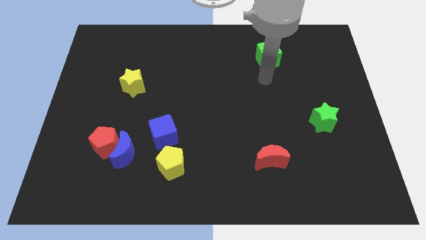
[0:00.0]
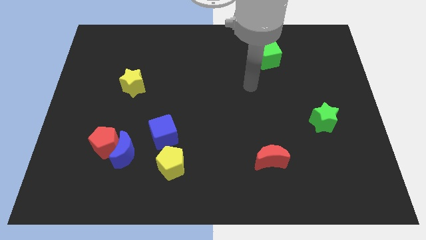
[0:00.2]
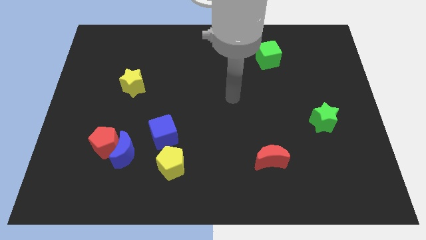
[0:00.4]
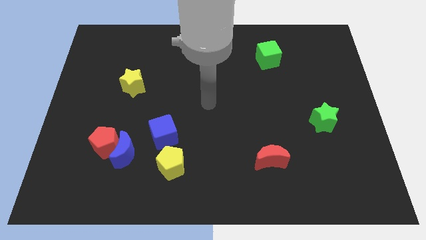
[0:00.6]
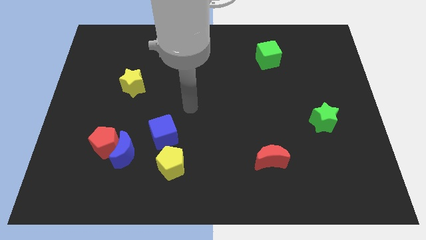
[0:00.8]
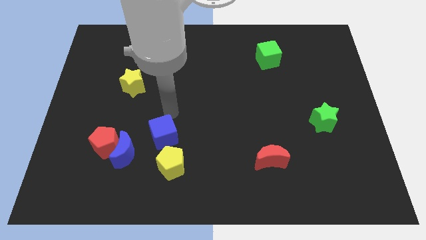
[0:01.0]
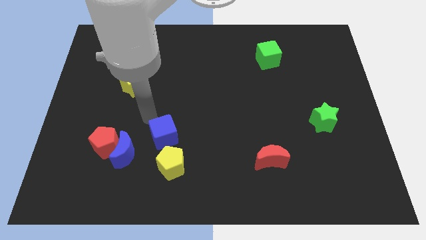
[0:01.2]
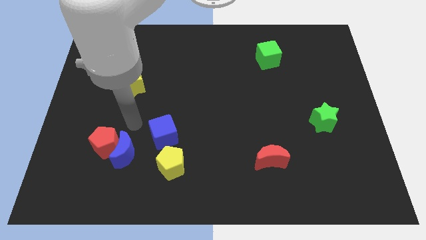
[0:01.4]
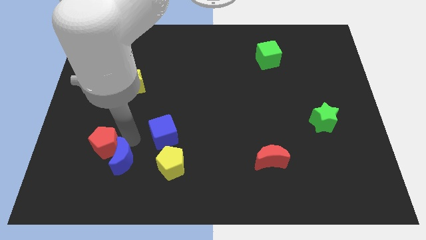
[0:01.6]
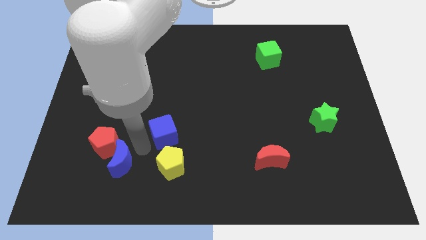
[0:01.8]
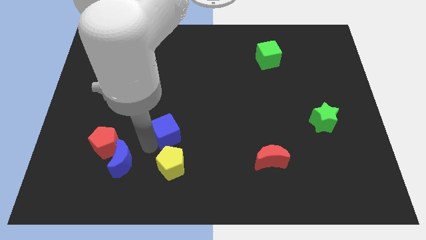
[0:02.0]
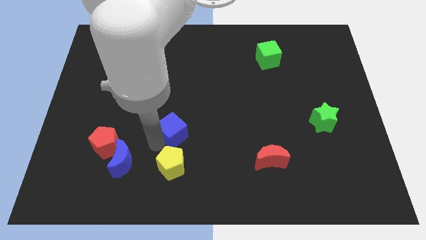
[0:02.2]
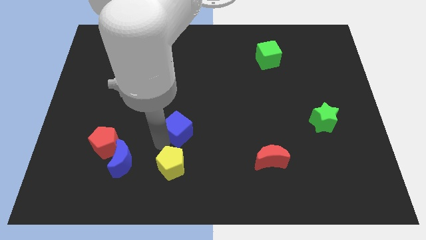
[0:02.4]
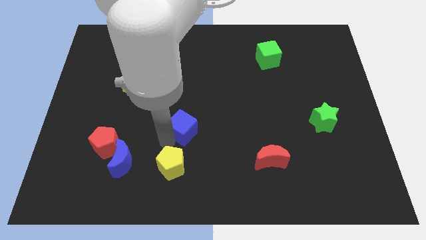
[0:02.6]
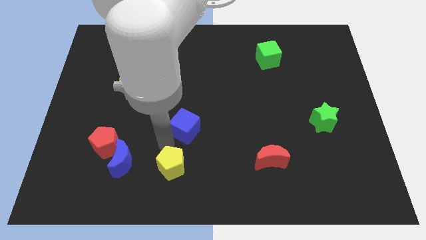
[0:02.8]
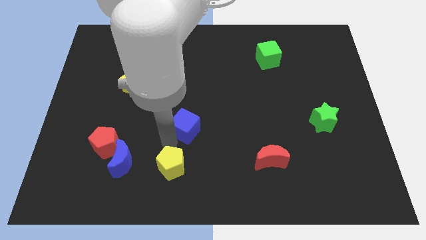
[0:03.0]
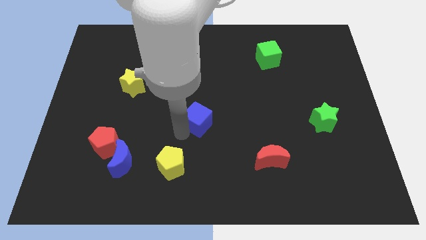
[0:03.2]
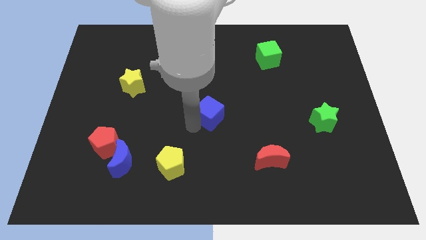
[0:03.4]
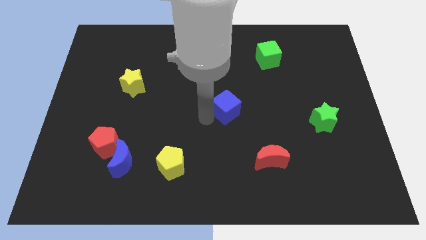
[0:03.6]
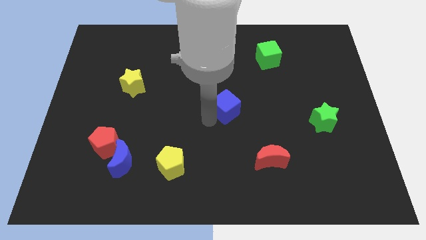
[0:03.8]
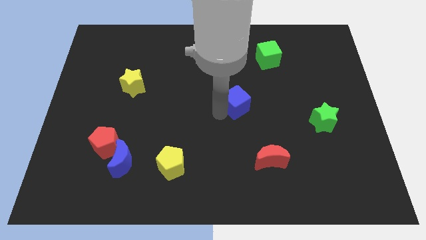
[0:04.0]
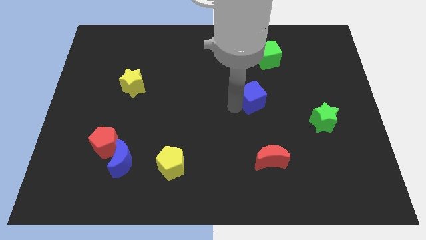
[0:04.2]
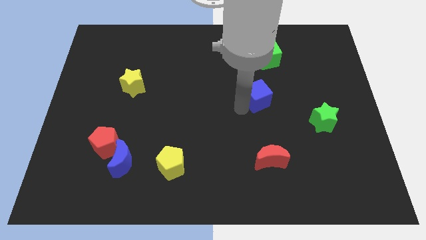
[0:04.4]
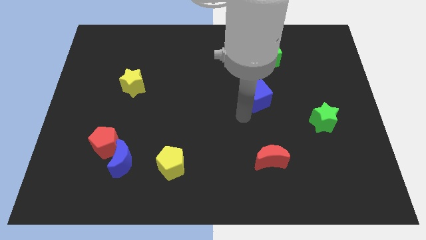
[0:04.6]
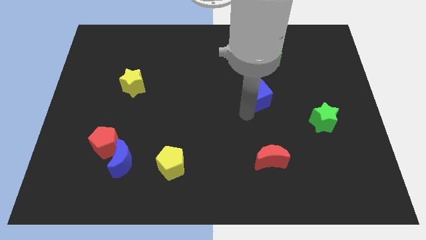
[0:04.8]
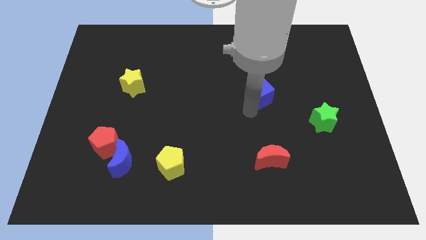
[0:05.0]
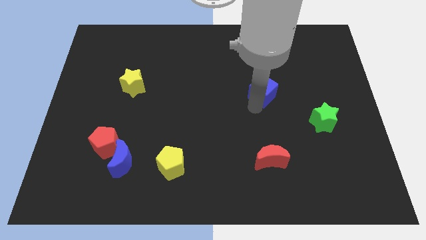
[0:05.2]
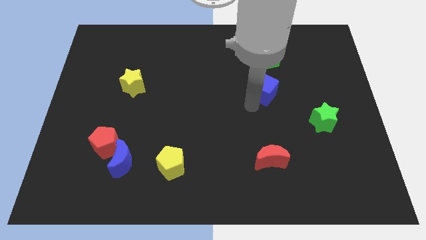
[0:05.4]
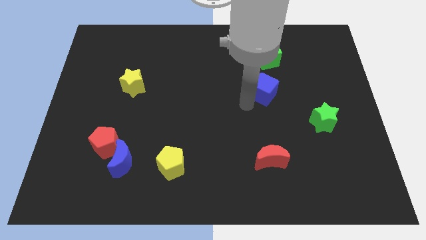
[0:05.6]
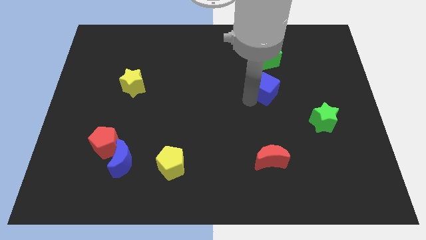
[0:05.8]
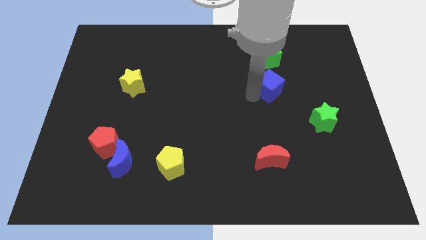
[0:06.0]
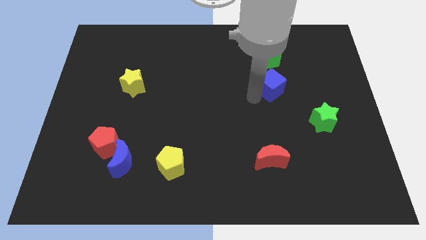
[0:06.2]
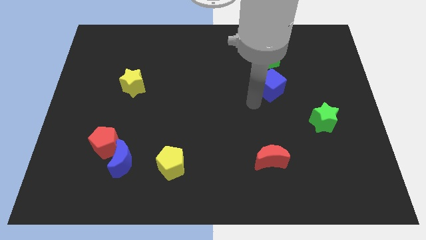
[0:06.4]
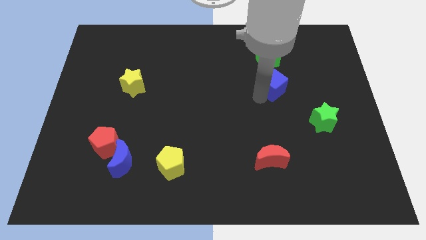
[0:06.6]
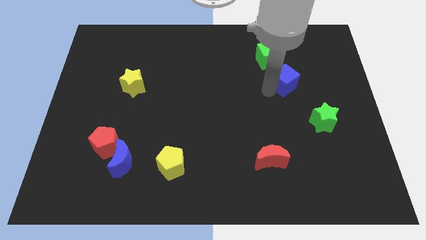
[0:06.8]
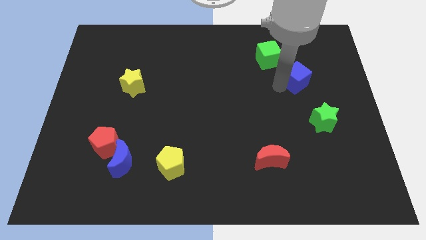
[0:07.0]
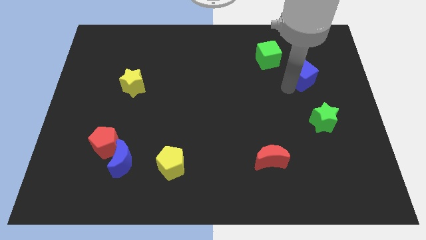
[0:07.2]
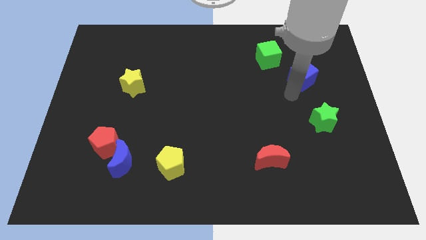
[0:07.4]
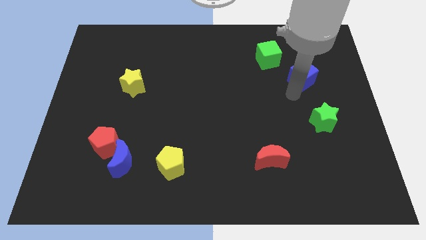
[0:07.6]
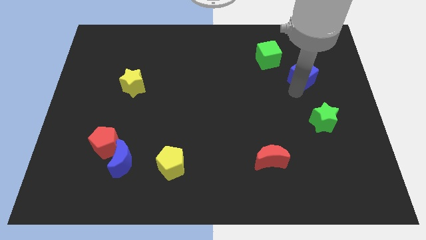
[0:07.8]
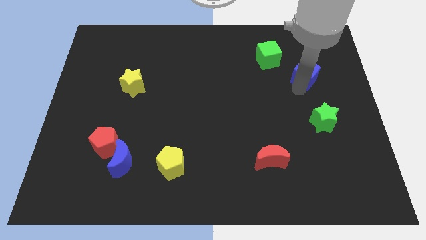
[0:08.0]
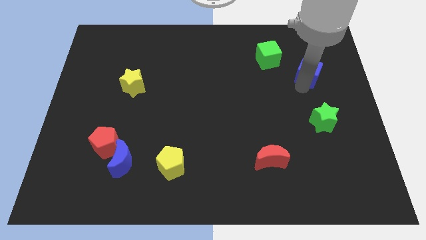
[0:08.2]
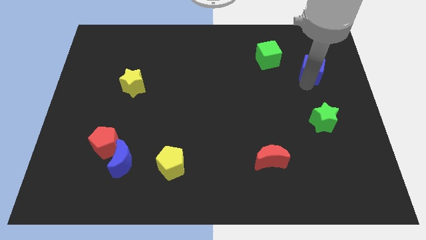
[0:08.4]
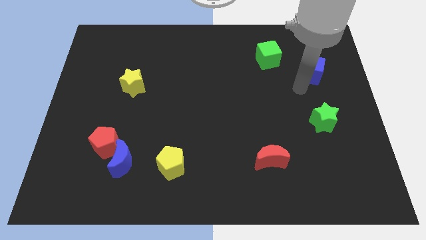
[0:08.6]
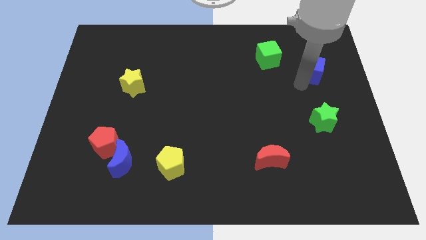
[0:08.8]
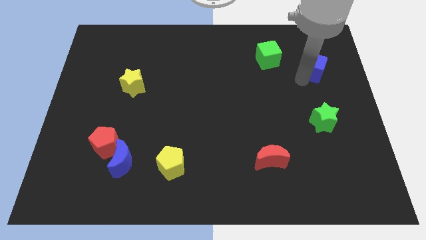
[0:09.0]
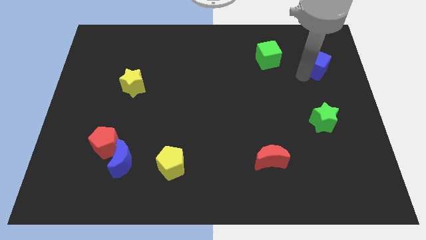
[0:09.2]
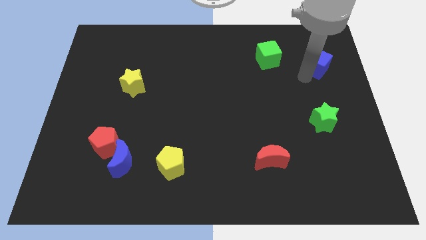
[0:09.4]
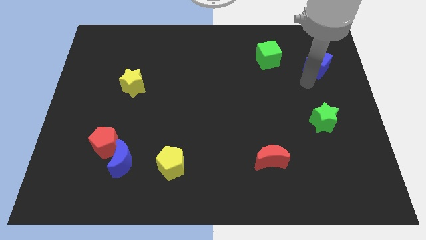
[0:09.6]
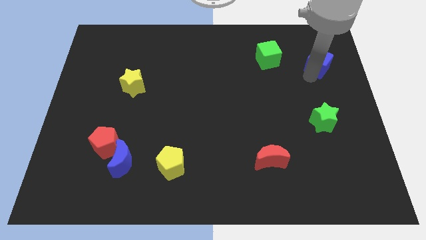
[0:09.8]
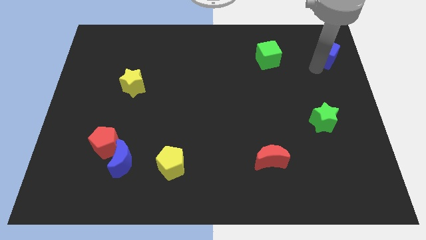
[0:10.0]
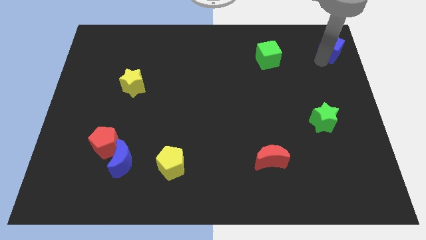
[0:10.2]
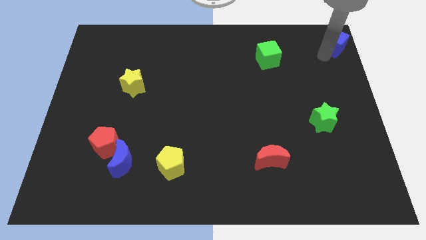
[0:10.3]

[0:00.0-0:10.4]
slide the blue cube to the upper right corner

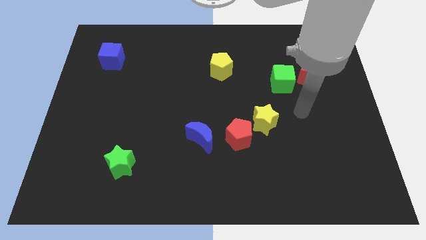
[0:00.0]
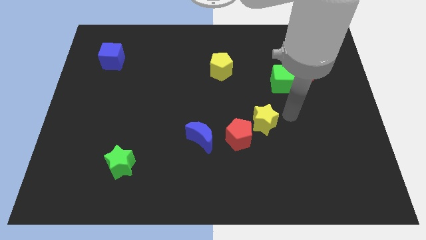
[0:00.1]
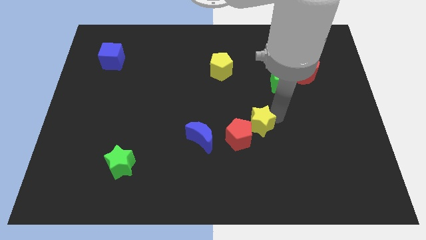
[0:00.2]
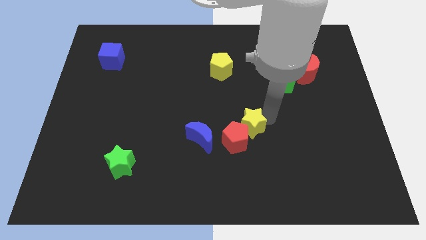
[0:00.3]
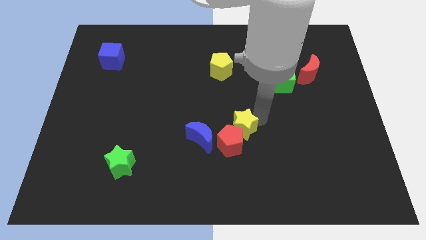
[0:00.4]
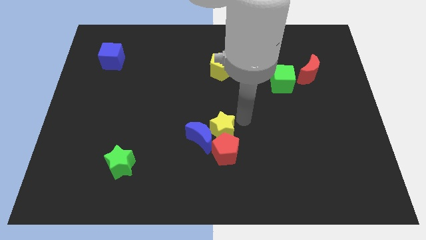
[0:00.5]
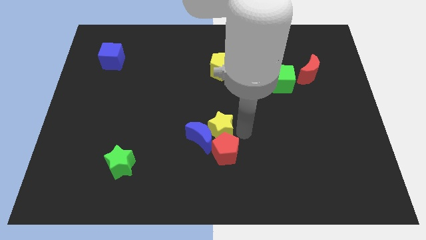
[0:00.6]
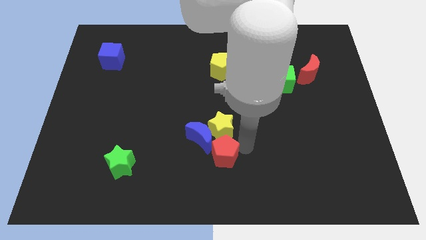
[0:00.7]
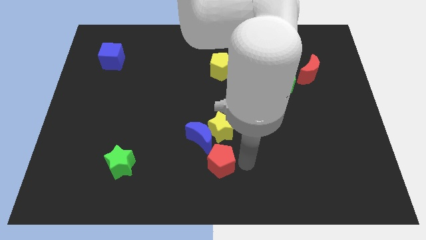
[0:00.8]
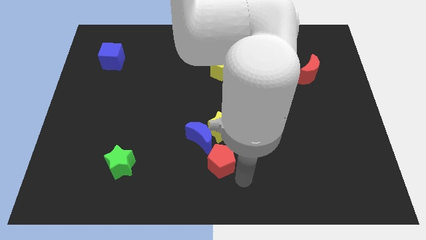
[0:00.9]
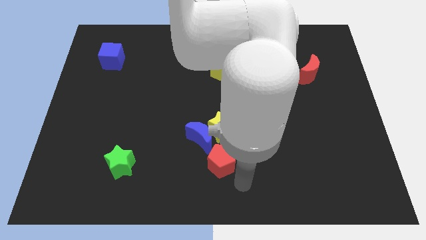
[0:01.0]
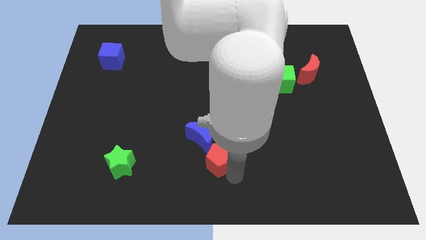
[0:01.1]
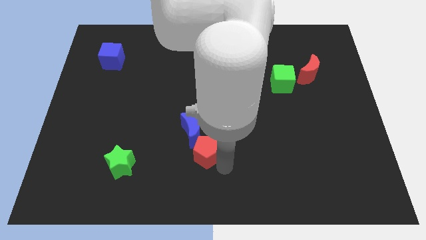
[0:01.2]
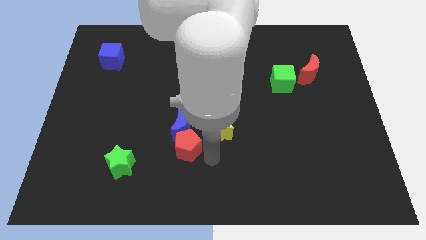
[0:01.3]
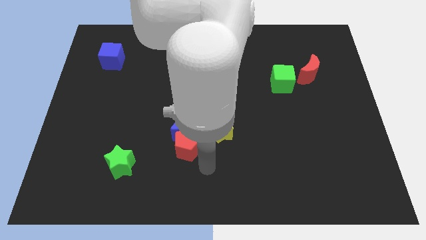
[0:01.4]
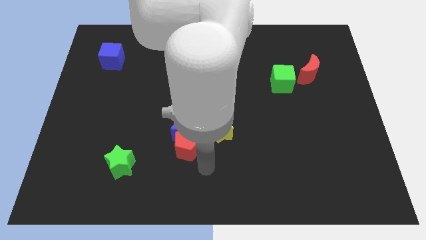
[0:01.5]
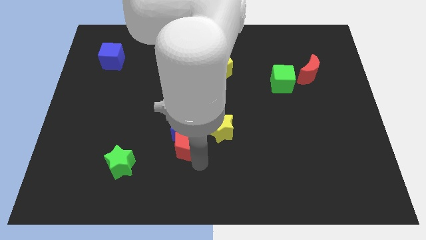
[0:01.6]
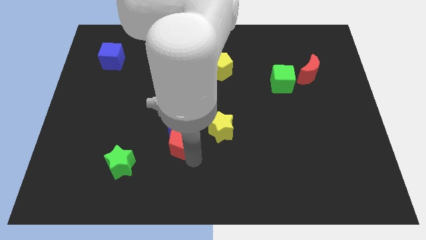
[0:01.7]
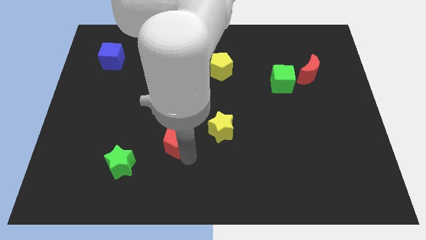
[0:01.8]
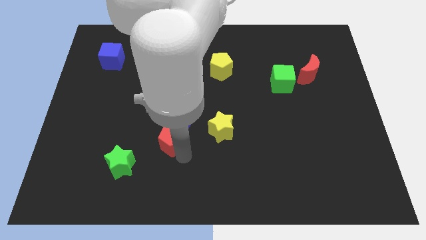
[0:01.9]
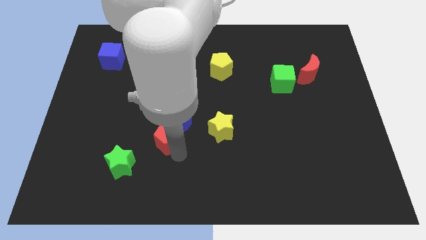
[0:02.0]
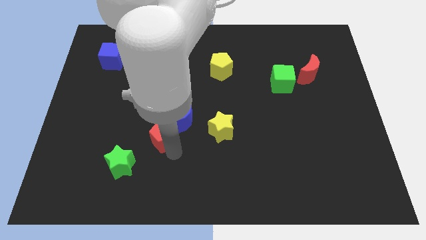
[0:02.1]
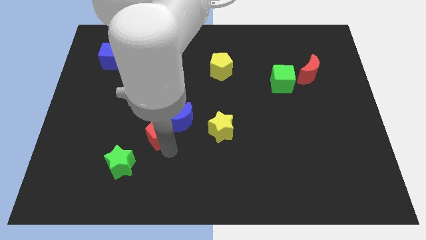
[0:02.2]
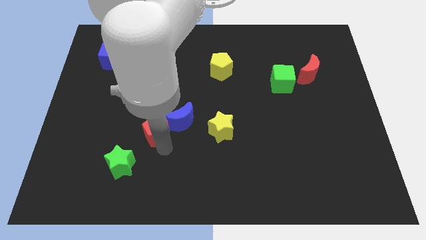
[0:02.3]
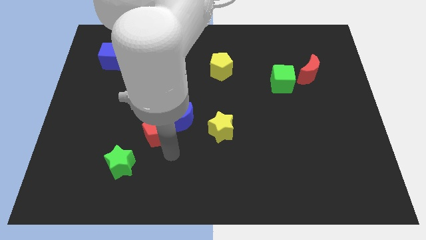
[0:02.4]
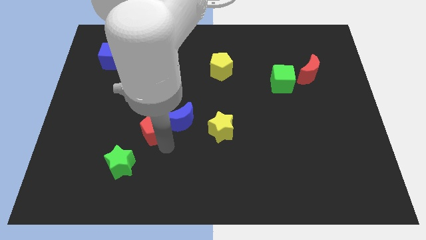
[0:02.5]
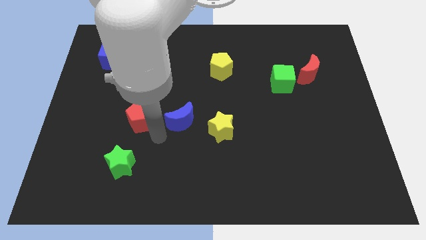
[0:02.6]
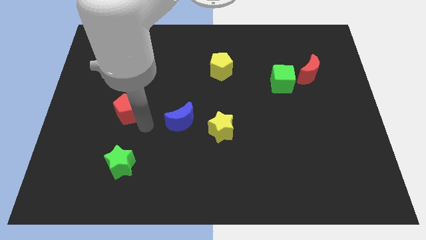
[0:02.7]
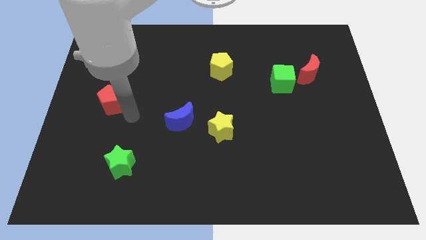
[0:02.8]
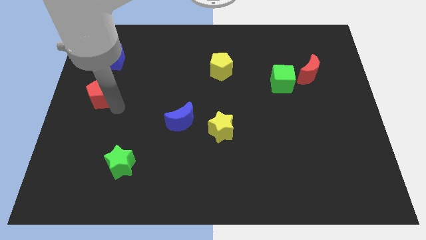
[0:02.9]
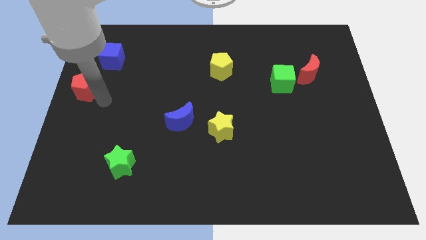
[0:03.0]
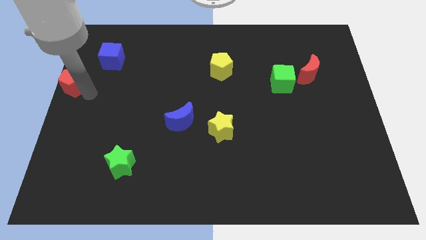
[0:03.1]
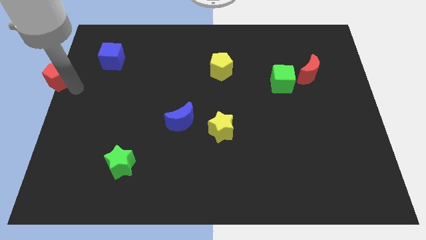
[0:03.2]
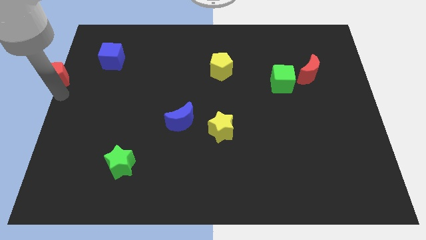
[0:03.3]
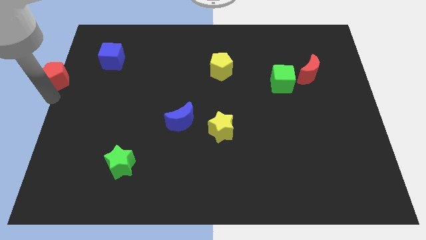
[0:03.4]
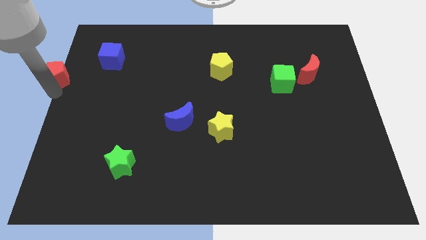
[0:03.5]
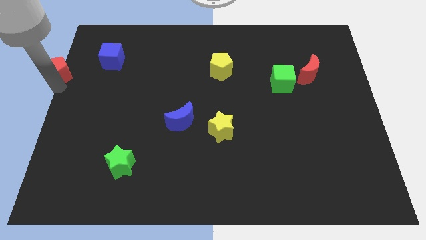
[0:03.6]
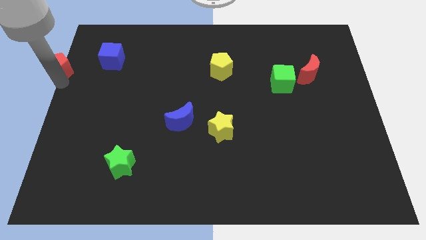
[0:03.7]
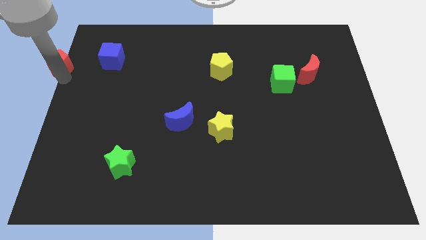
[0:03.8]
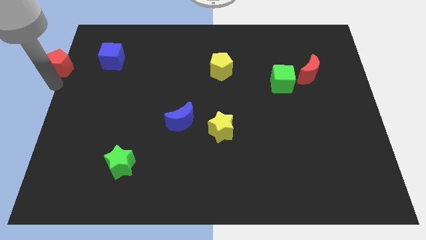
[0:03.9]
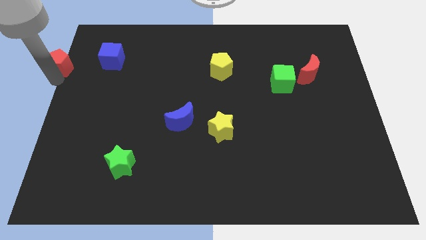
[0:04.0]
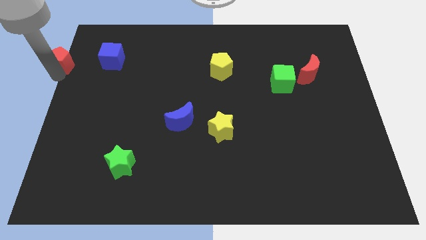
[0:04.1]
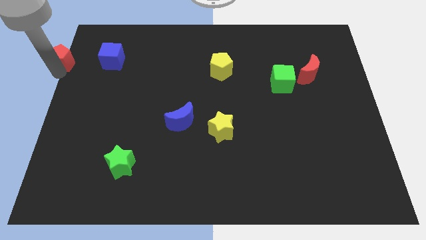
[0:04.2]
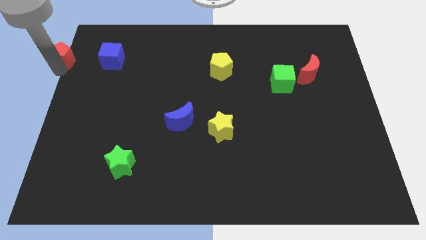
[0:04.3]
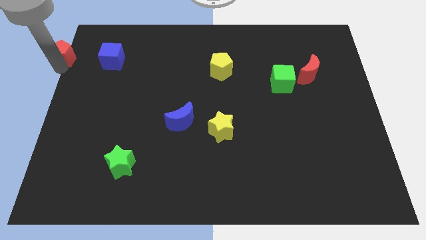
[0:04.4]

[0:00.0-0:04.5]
slide the red pentagon to the top left corner
